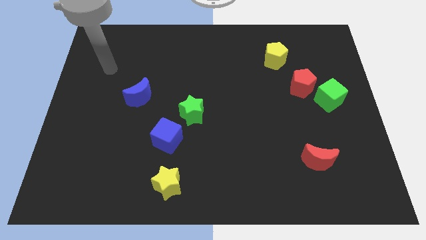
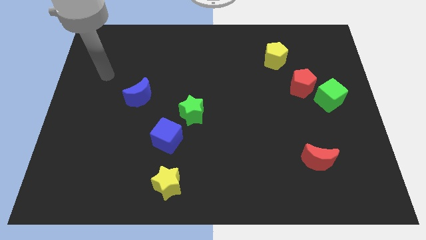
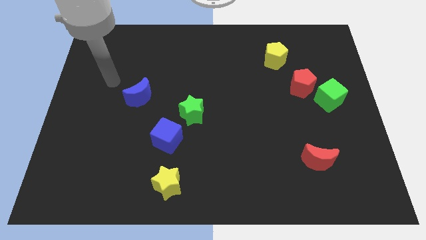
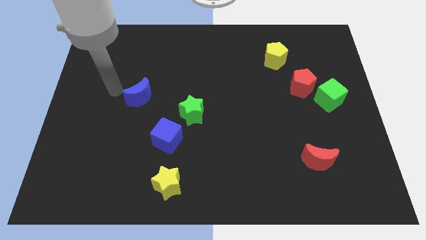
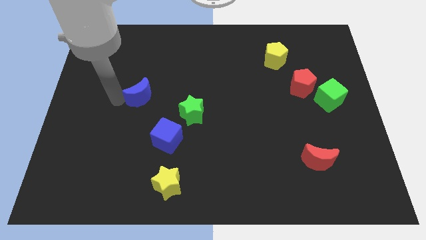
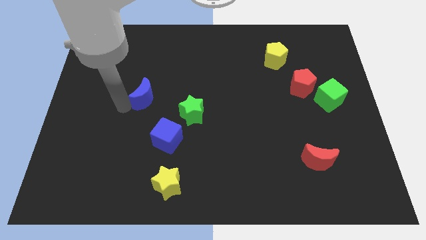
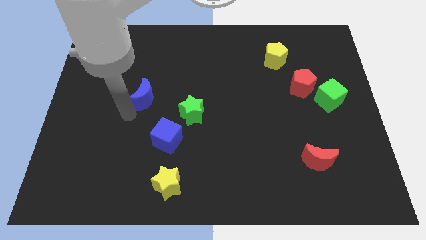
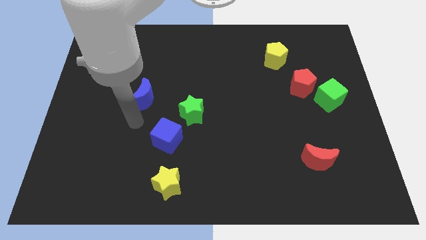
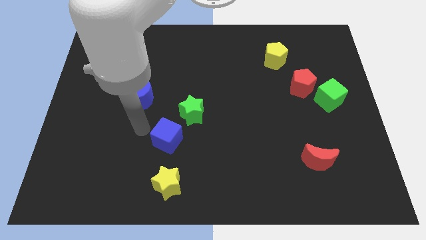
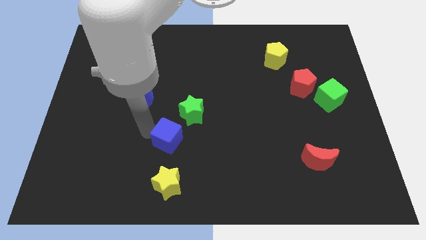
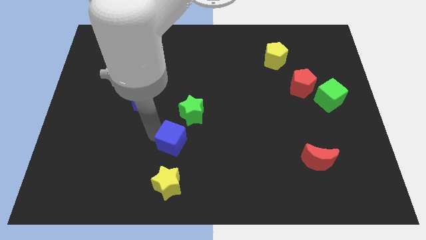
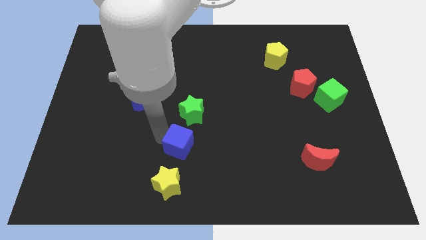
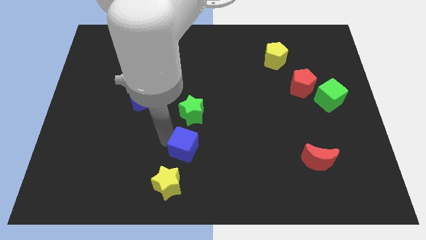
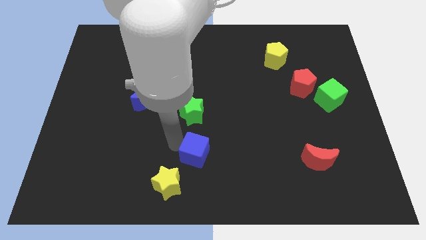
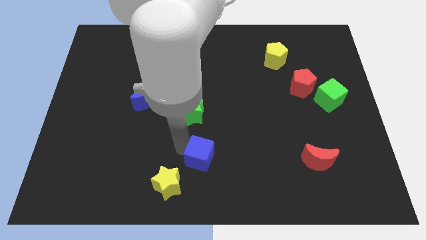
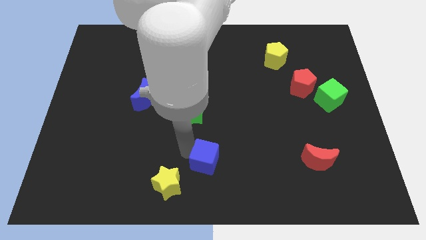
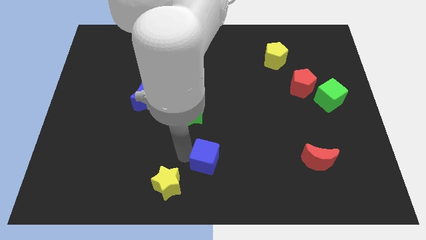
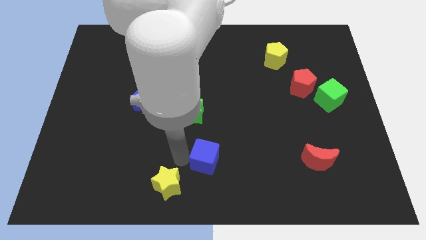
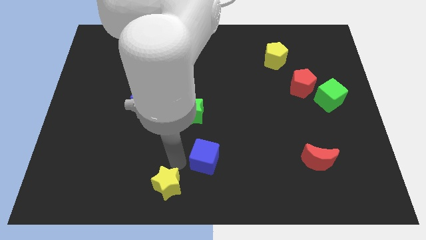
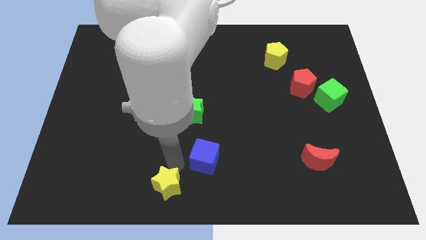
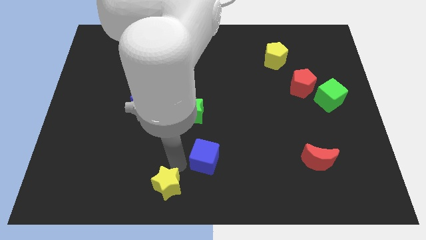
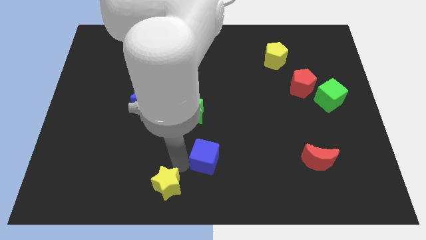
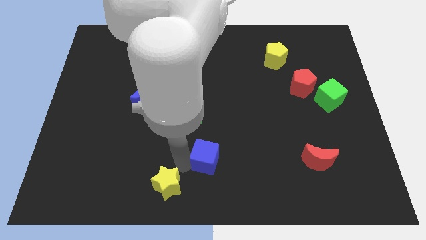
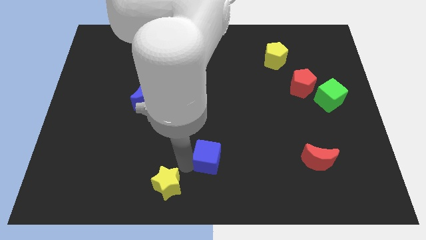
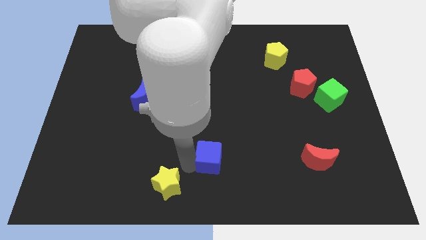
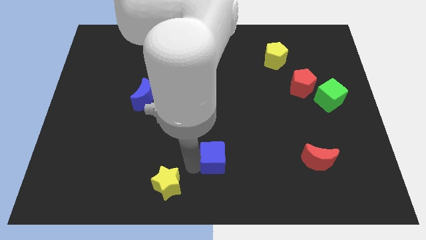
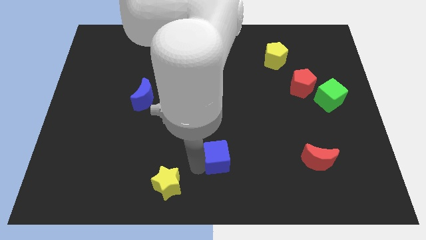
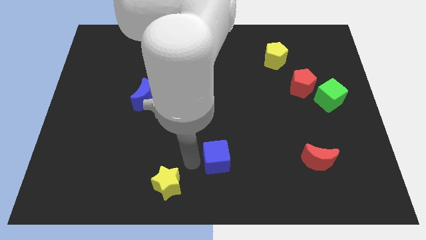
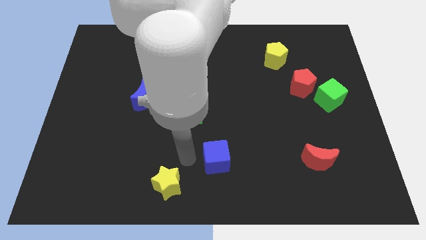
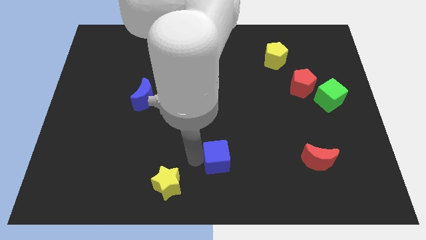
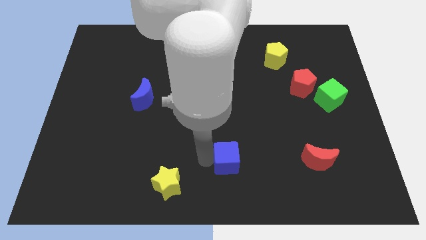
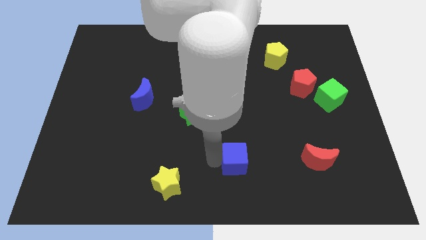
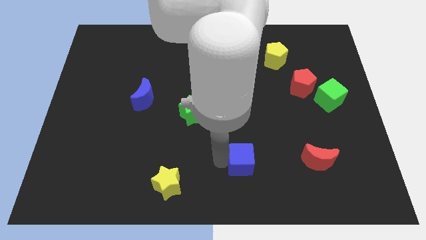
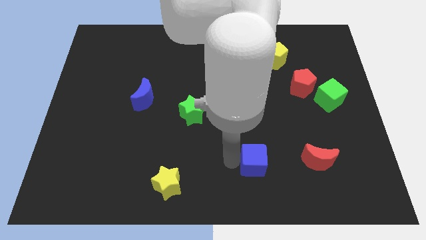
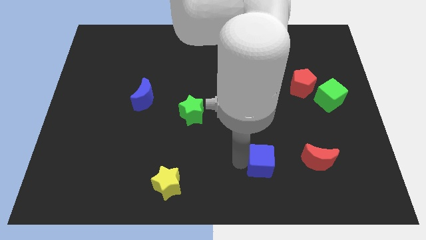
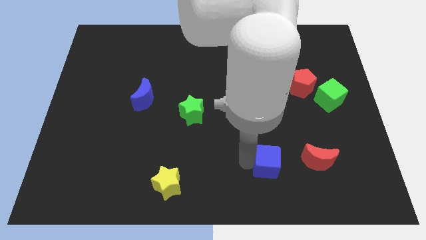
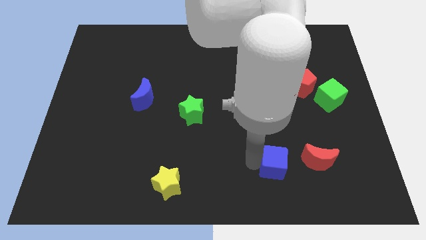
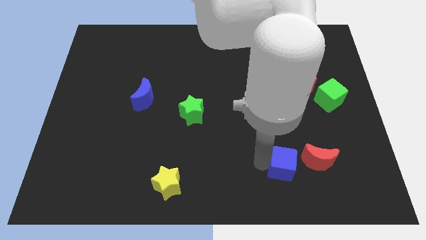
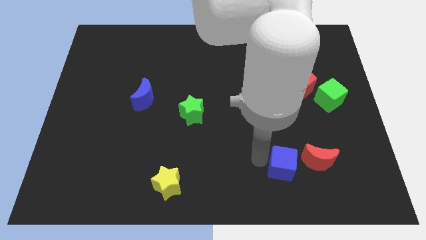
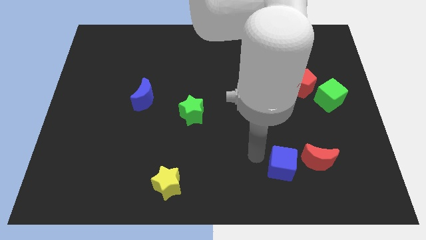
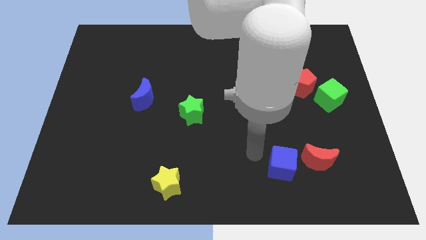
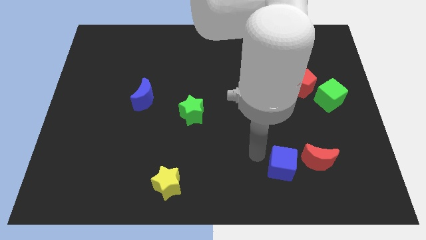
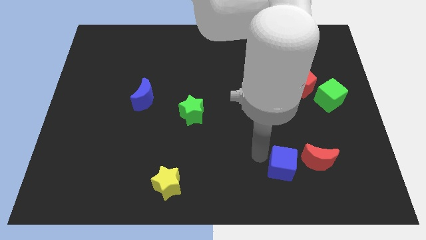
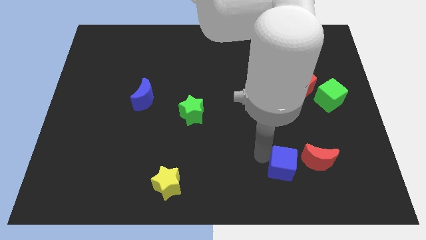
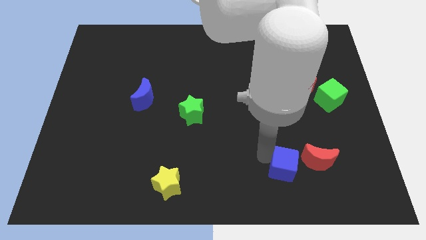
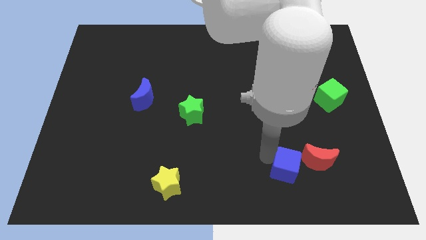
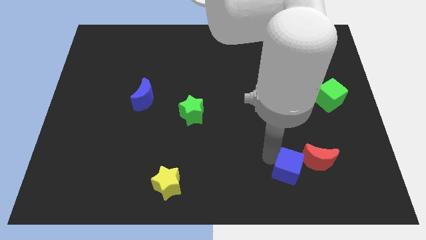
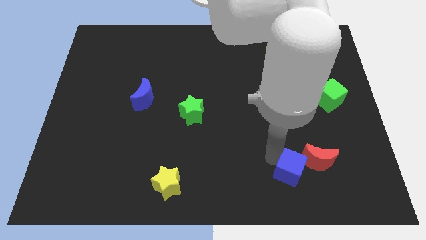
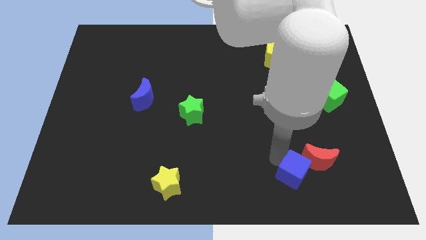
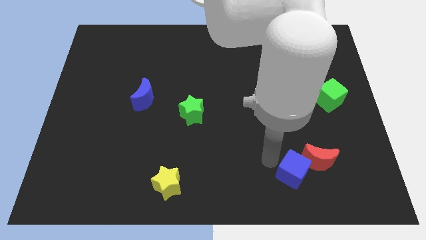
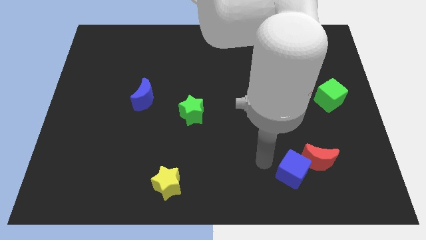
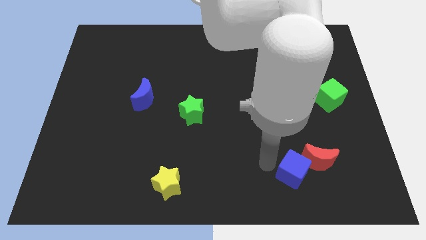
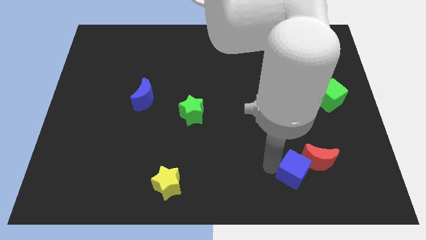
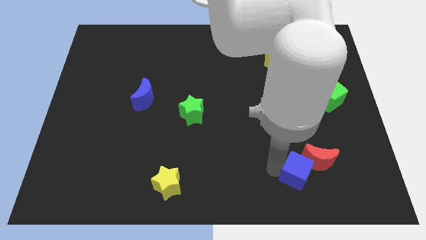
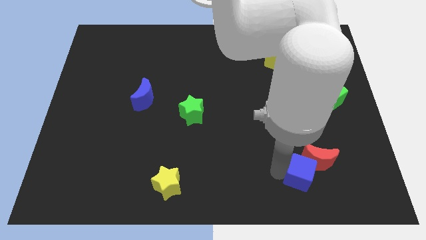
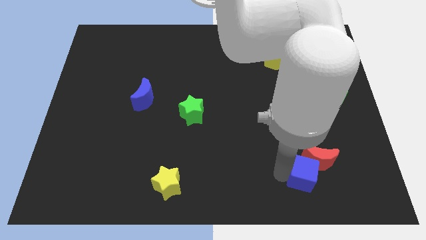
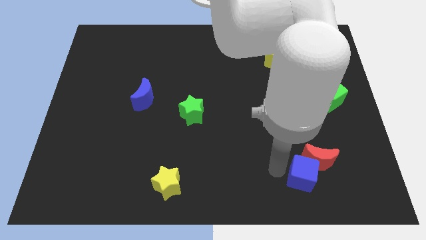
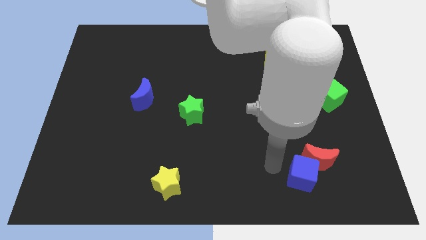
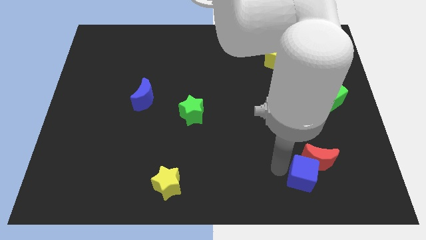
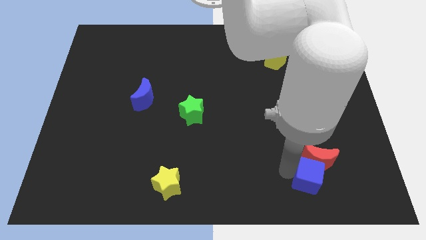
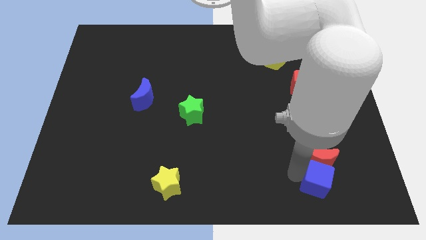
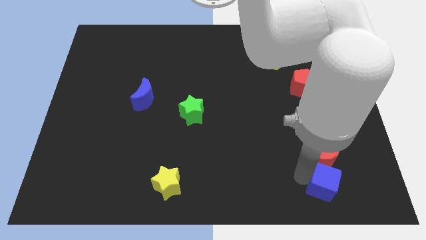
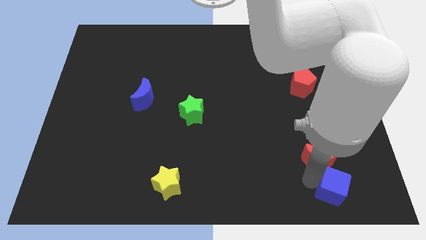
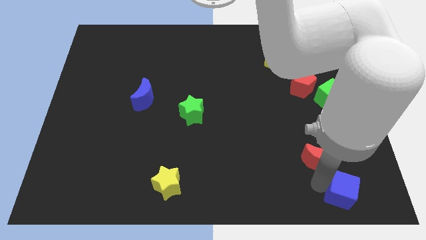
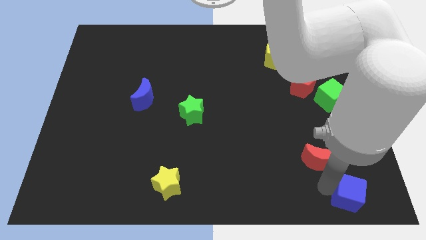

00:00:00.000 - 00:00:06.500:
move the blue cube to the bottom right of the board

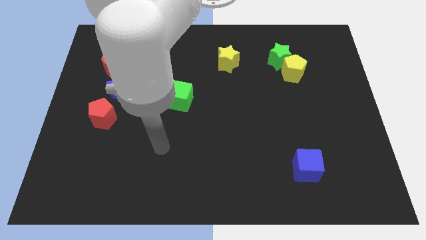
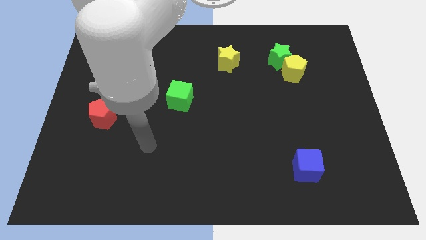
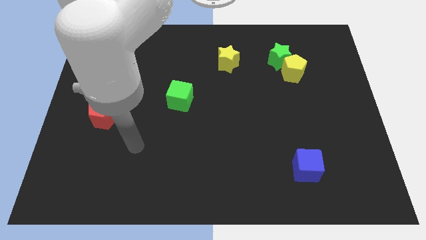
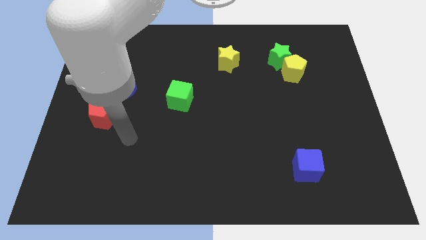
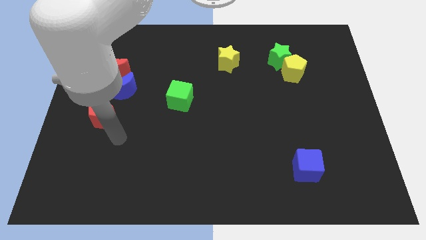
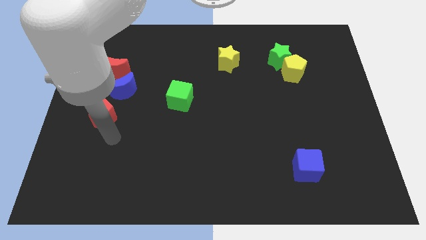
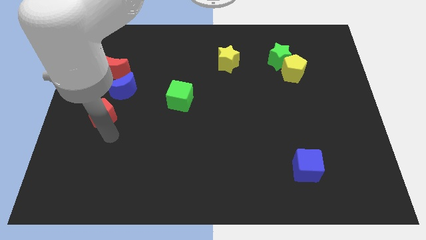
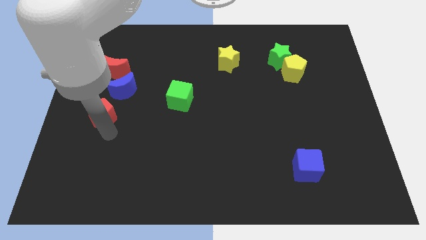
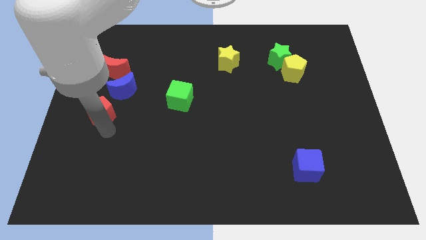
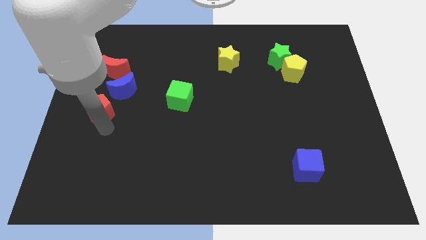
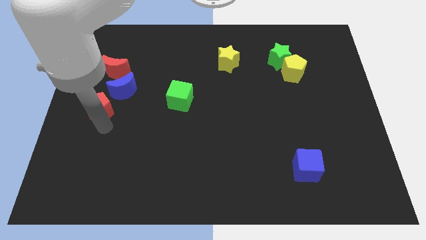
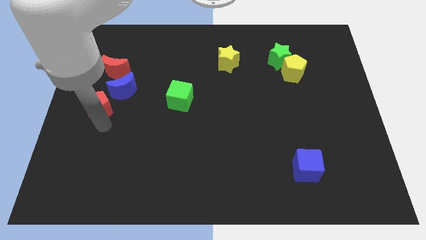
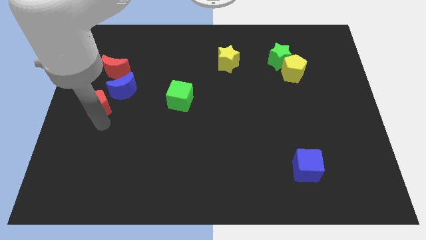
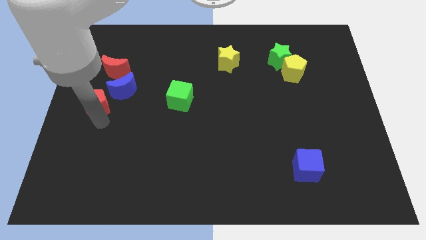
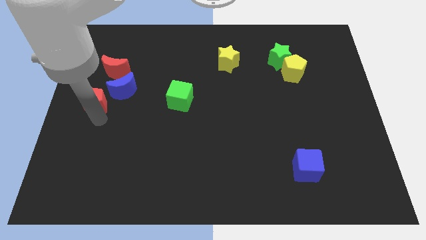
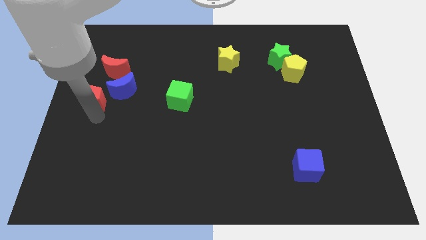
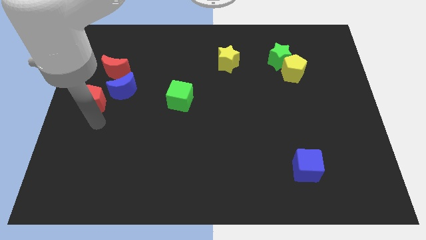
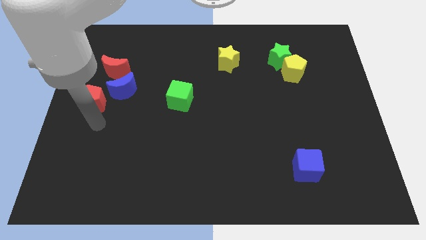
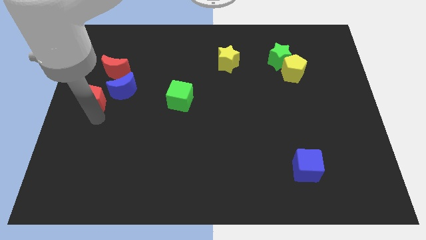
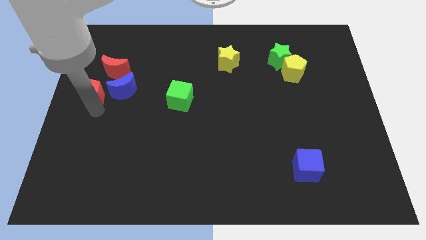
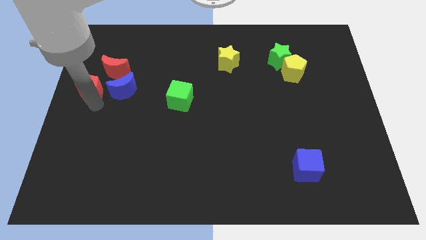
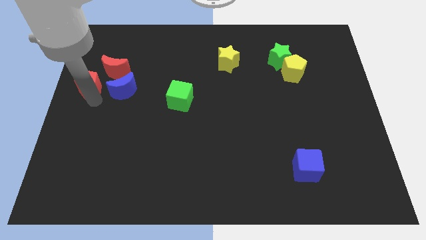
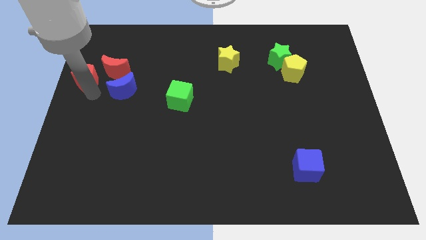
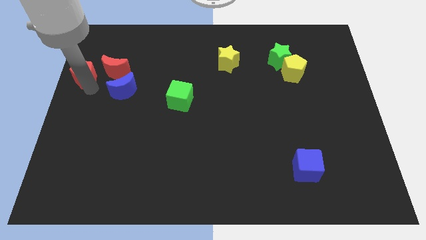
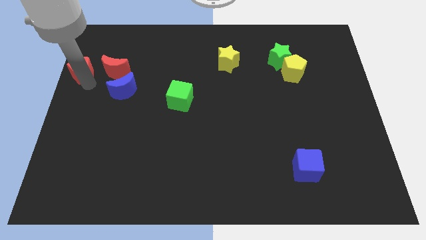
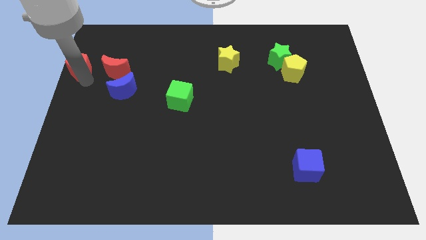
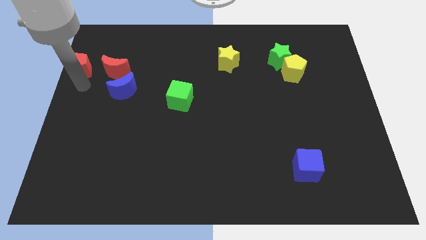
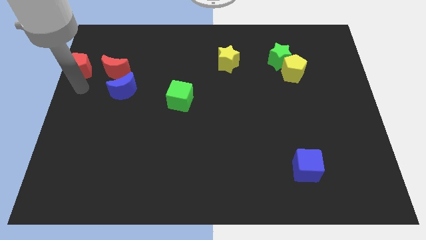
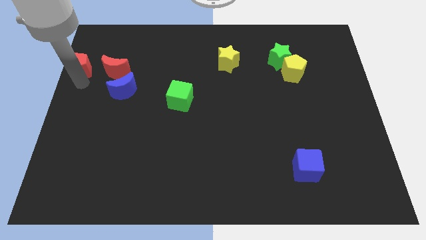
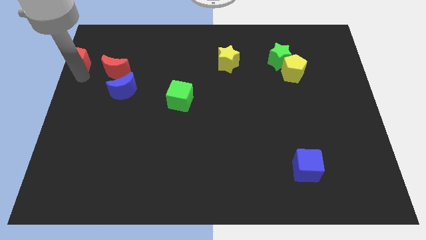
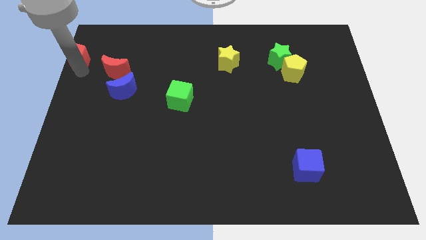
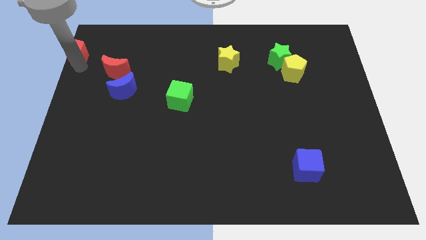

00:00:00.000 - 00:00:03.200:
push the red pentagon to the top left of the board
